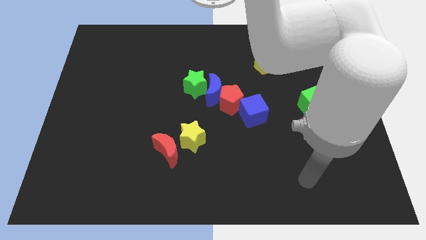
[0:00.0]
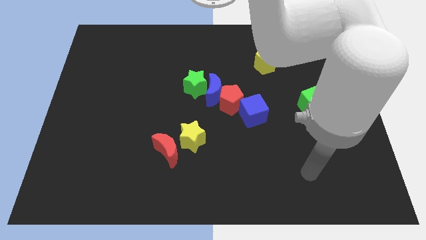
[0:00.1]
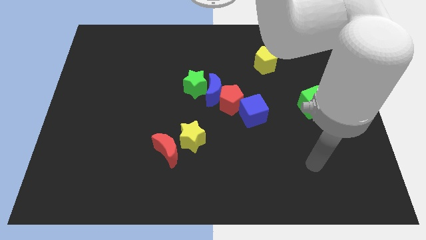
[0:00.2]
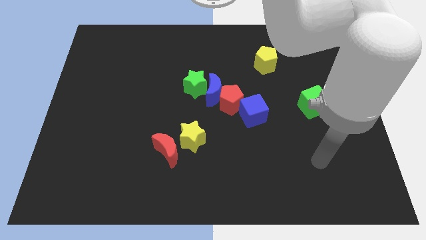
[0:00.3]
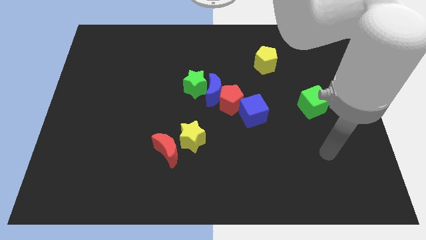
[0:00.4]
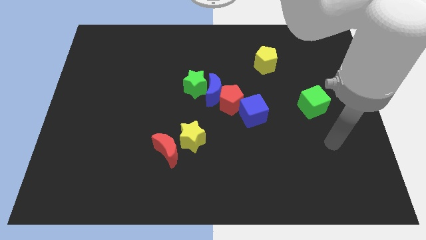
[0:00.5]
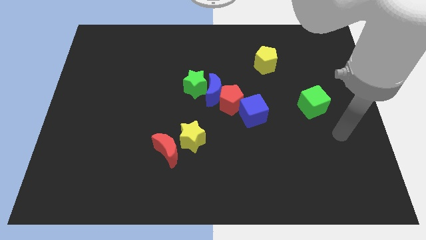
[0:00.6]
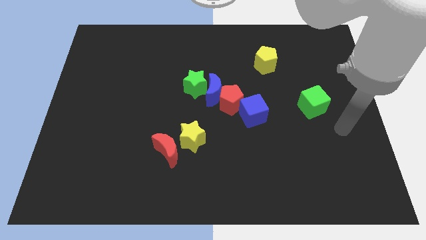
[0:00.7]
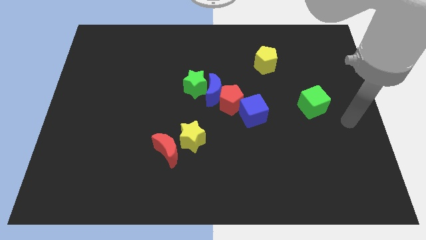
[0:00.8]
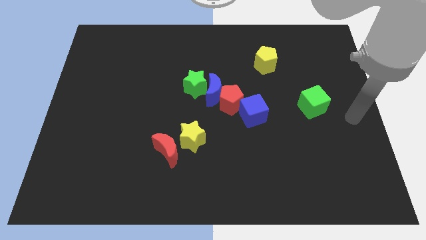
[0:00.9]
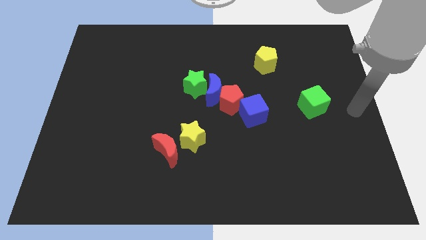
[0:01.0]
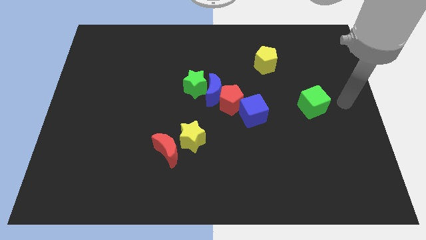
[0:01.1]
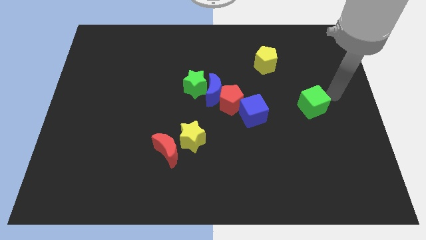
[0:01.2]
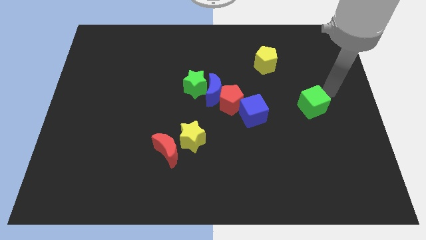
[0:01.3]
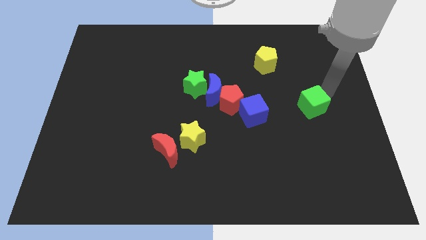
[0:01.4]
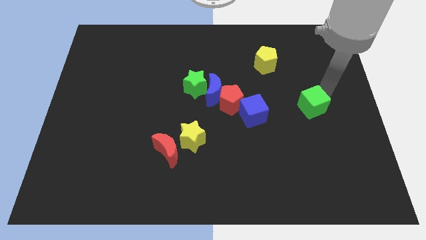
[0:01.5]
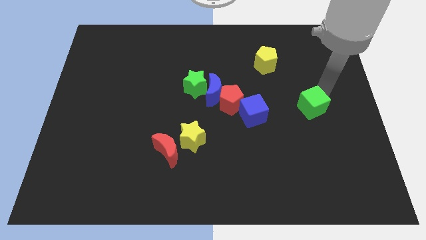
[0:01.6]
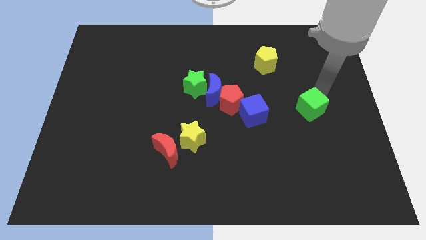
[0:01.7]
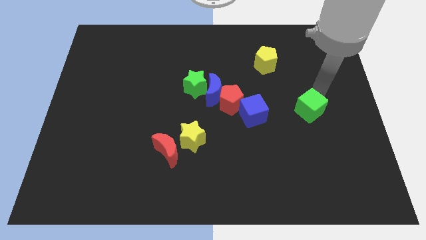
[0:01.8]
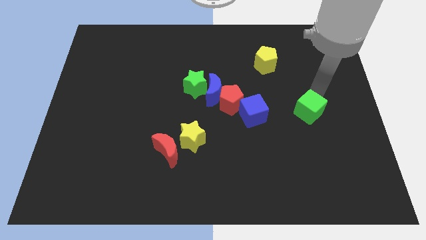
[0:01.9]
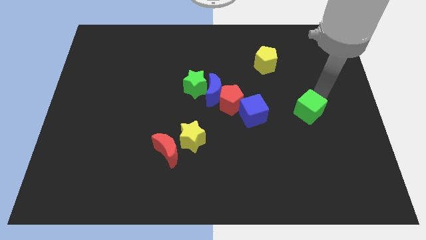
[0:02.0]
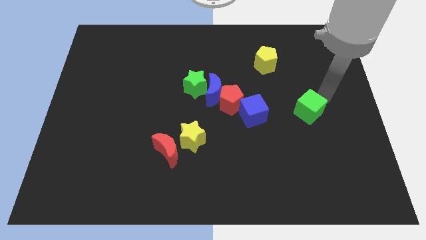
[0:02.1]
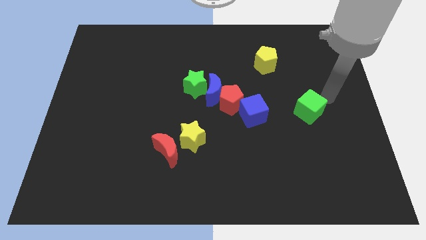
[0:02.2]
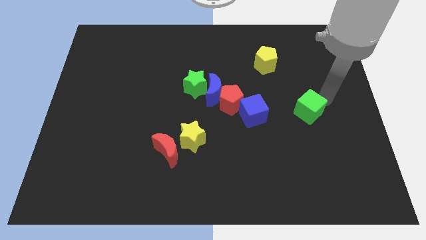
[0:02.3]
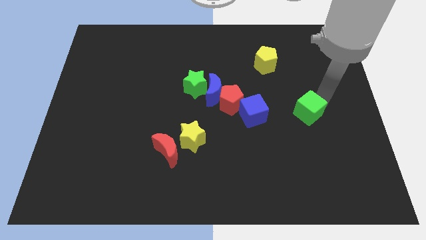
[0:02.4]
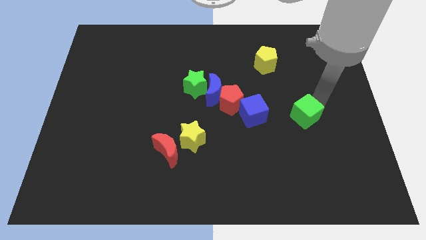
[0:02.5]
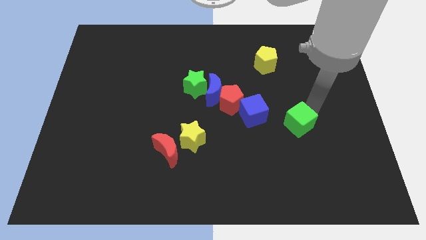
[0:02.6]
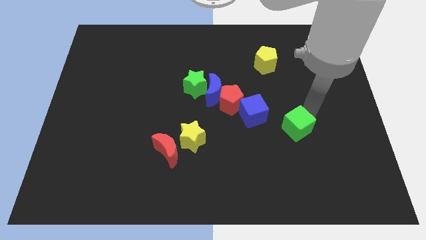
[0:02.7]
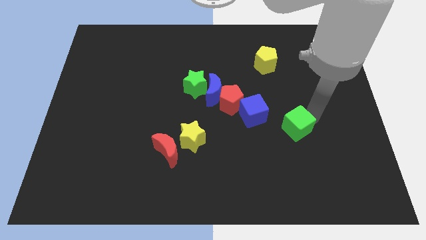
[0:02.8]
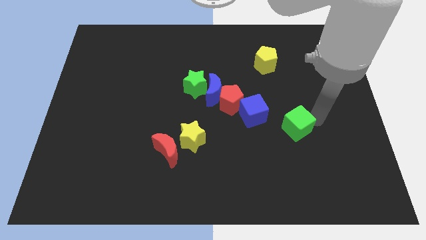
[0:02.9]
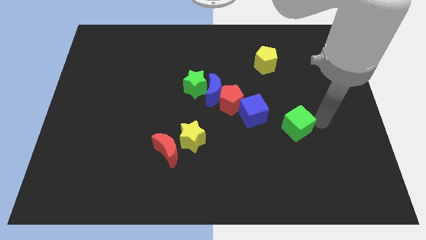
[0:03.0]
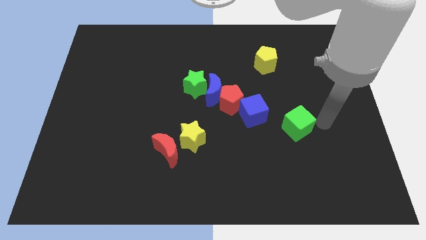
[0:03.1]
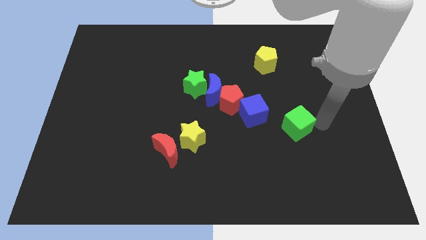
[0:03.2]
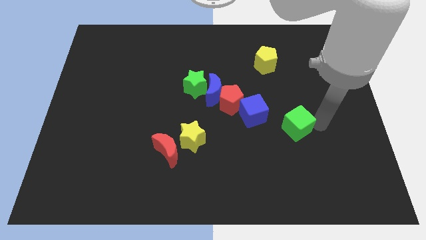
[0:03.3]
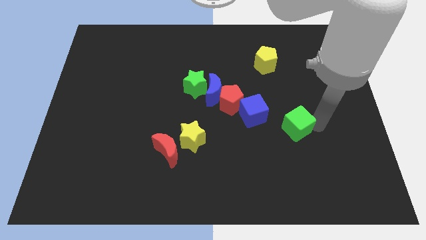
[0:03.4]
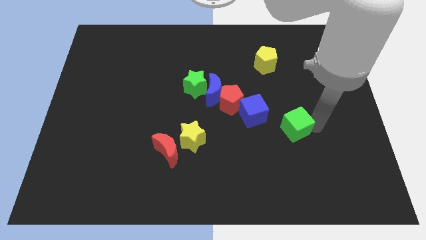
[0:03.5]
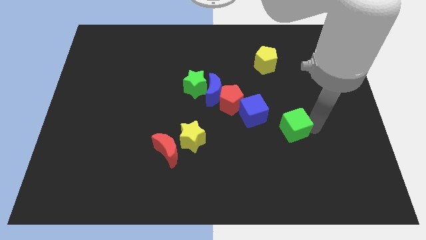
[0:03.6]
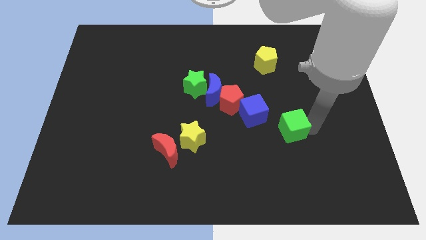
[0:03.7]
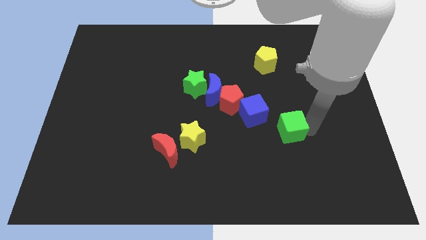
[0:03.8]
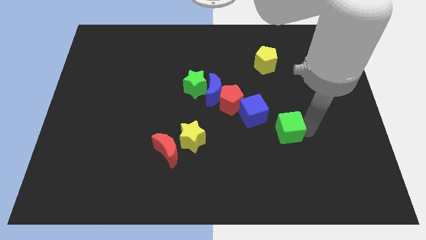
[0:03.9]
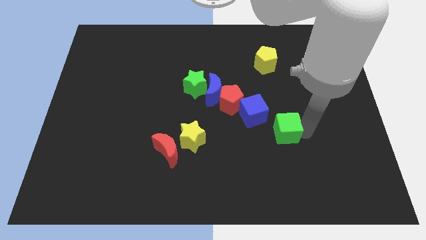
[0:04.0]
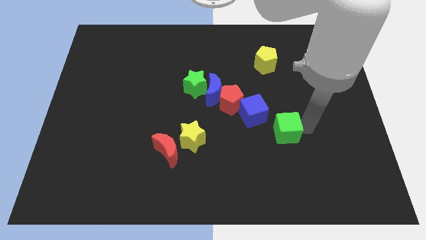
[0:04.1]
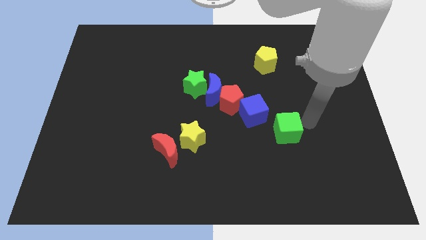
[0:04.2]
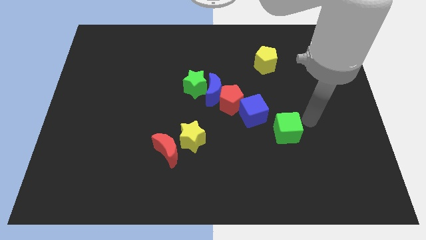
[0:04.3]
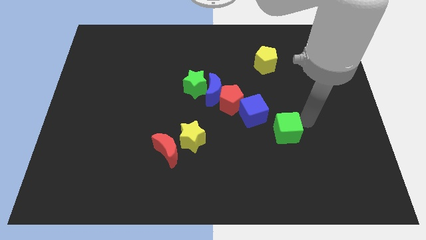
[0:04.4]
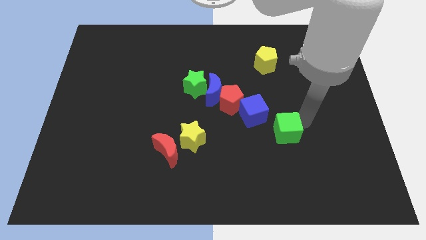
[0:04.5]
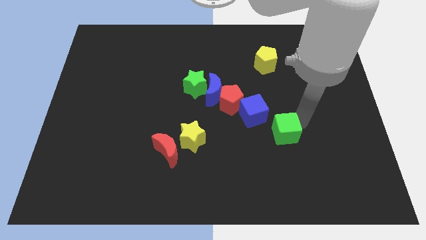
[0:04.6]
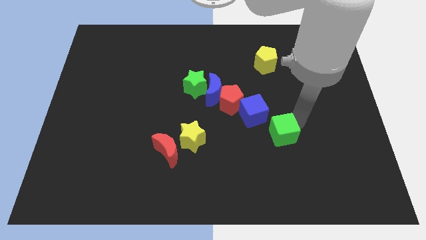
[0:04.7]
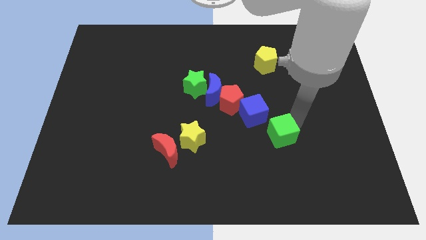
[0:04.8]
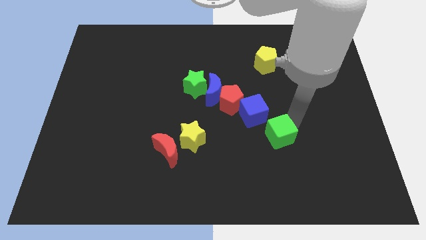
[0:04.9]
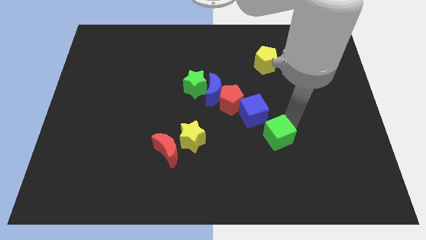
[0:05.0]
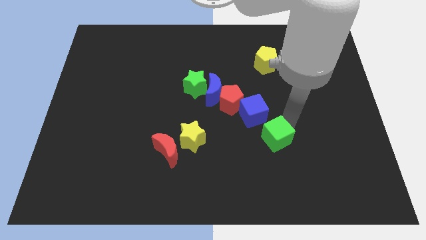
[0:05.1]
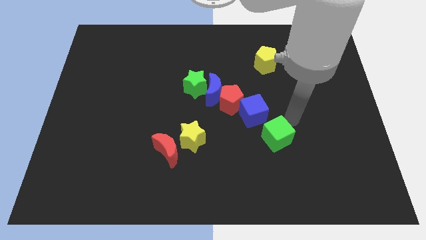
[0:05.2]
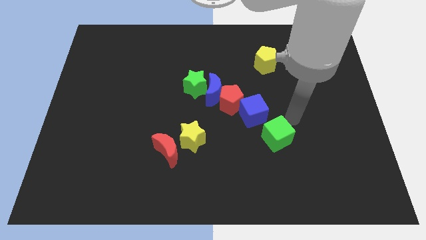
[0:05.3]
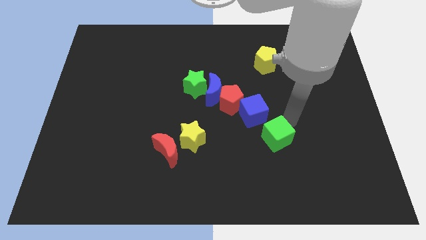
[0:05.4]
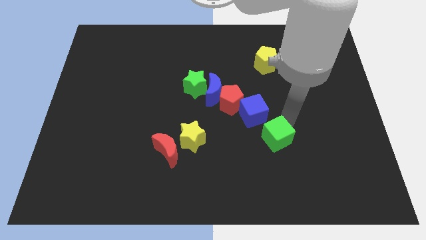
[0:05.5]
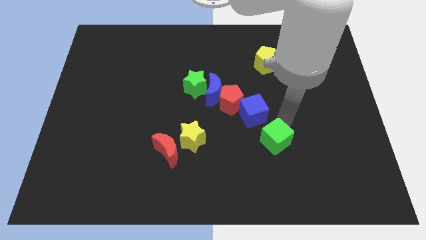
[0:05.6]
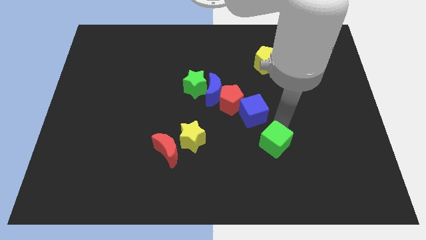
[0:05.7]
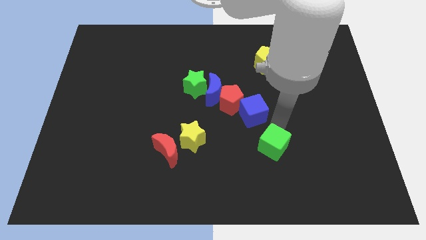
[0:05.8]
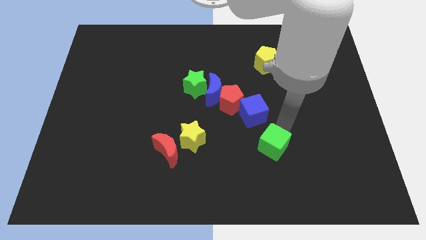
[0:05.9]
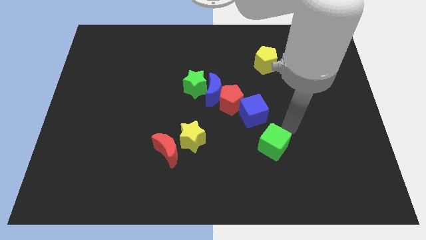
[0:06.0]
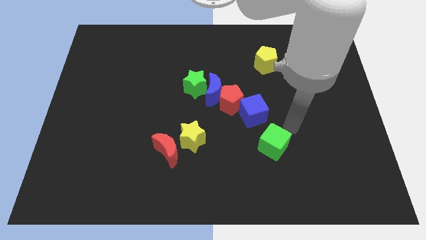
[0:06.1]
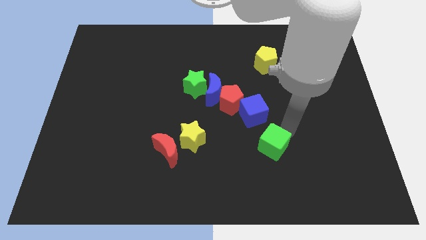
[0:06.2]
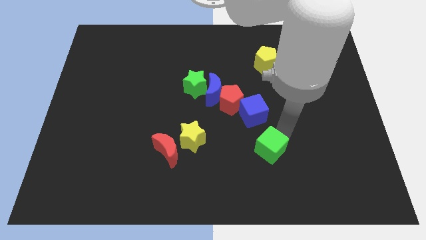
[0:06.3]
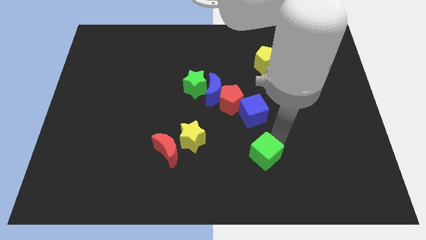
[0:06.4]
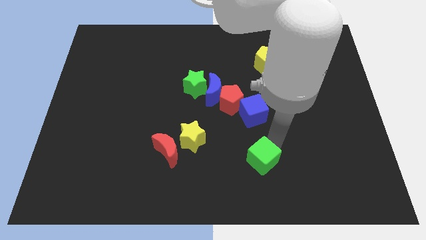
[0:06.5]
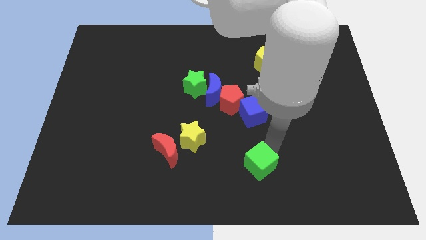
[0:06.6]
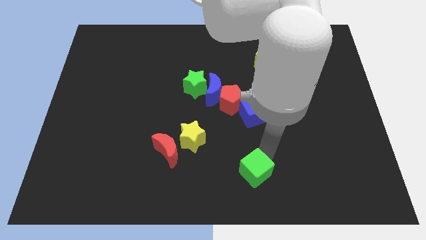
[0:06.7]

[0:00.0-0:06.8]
push the green cube to the bottom side
